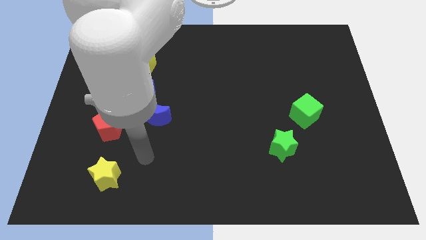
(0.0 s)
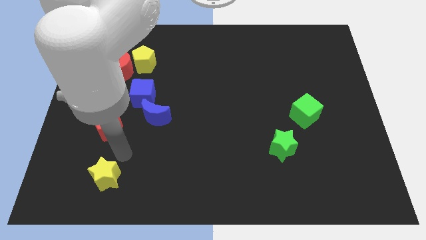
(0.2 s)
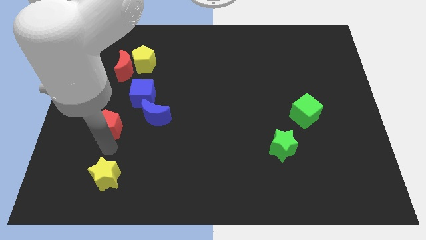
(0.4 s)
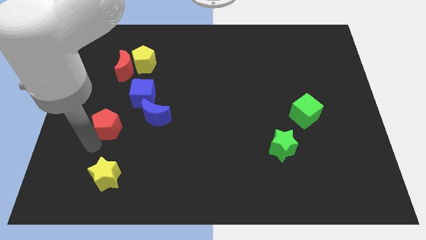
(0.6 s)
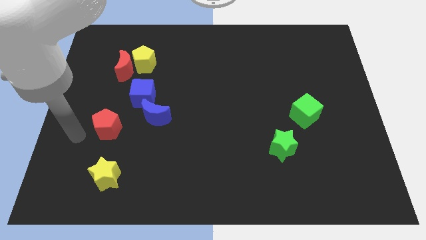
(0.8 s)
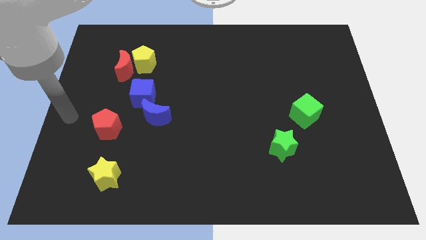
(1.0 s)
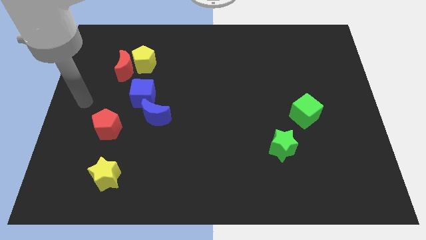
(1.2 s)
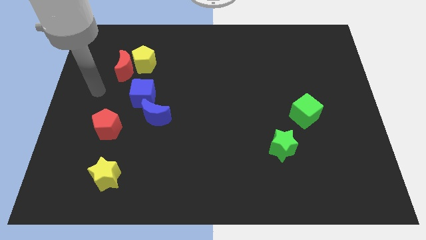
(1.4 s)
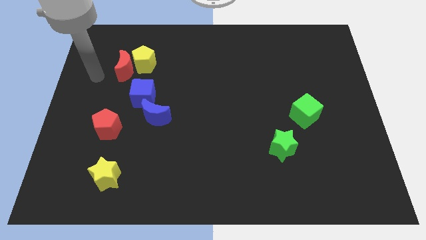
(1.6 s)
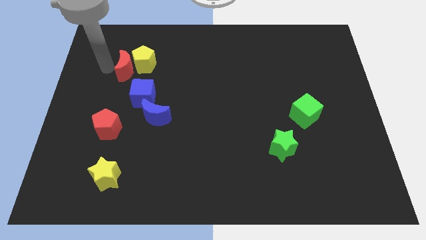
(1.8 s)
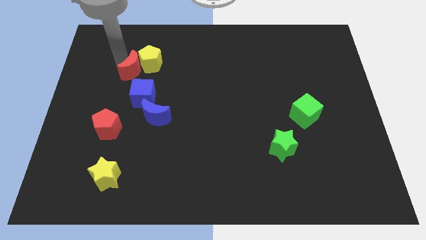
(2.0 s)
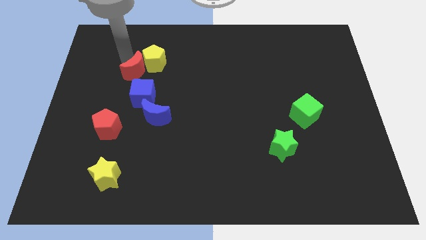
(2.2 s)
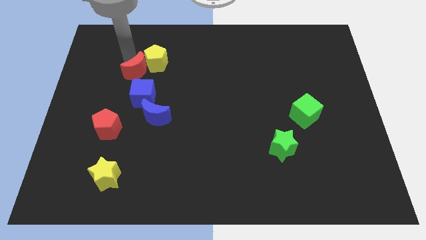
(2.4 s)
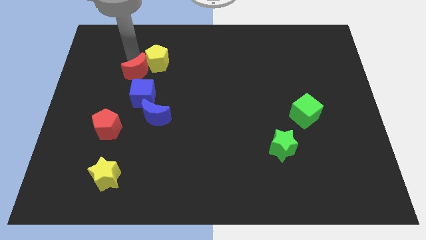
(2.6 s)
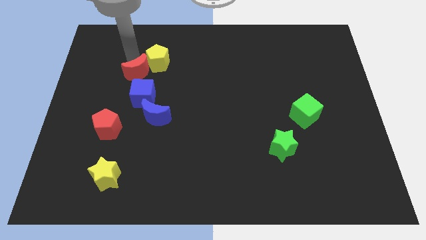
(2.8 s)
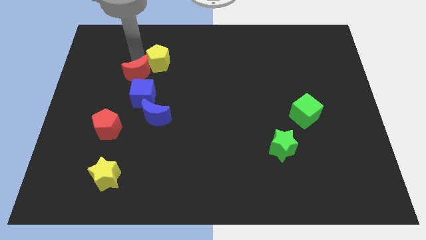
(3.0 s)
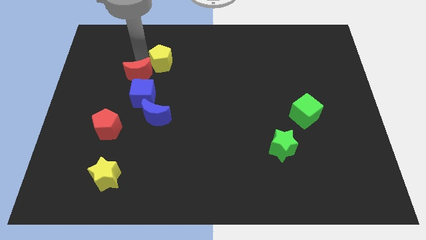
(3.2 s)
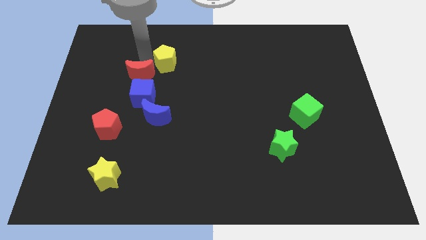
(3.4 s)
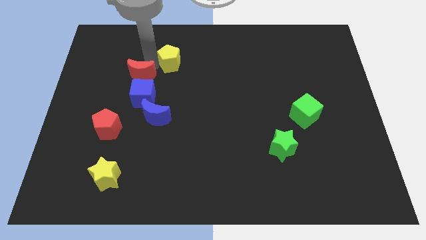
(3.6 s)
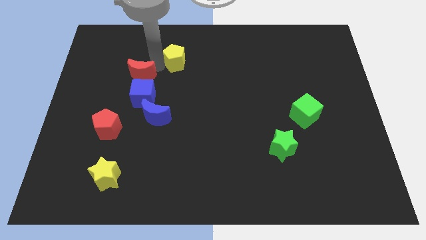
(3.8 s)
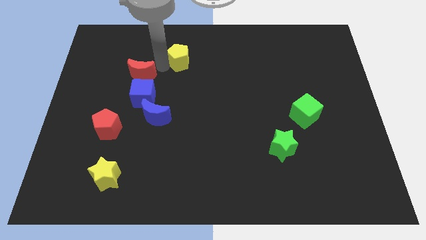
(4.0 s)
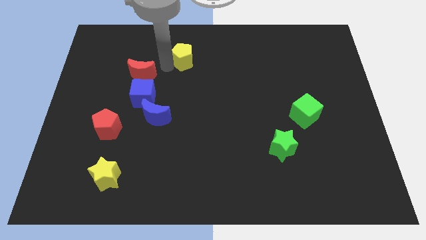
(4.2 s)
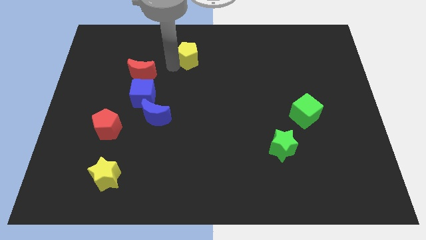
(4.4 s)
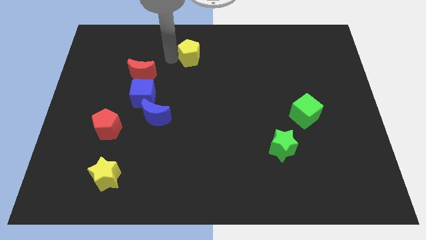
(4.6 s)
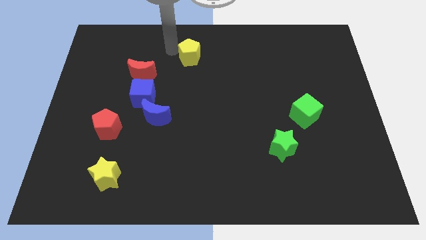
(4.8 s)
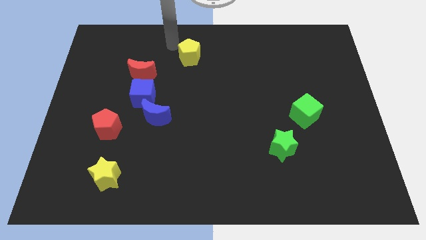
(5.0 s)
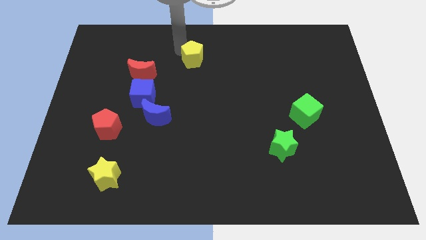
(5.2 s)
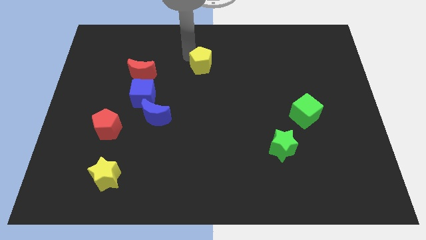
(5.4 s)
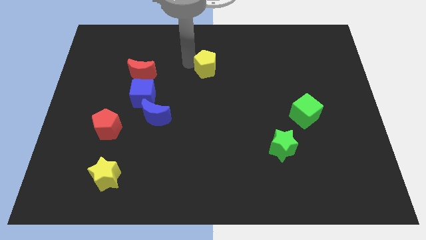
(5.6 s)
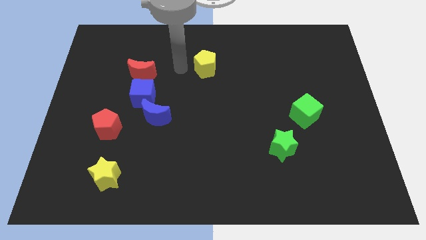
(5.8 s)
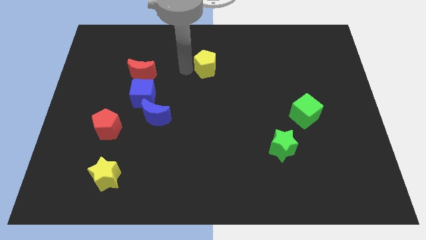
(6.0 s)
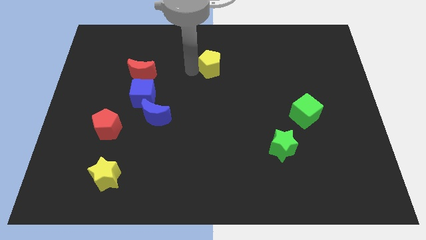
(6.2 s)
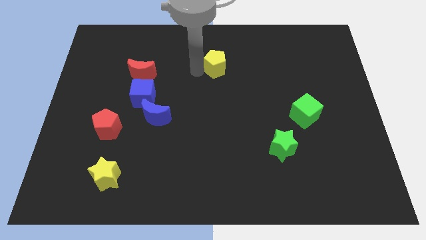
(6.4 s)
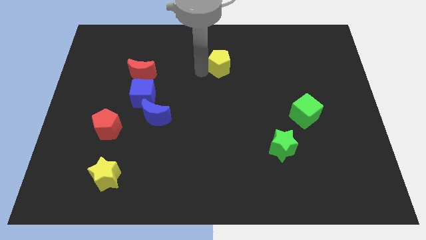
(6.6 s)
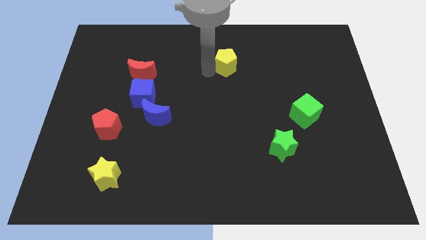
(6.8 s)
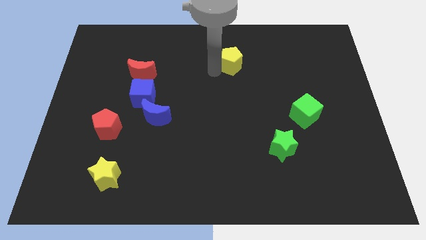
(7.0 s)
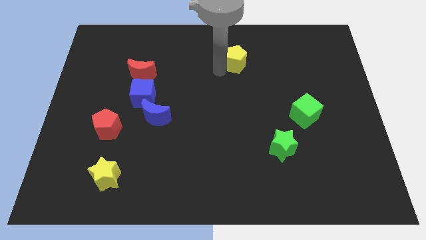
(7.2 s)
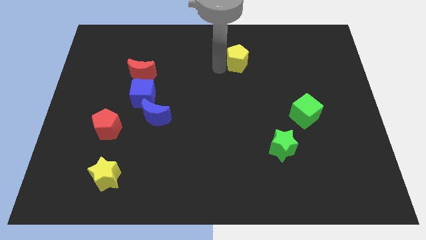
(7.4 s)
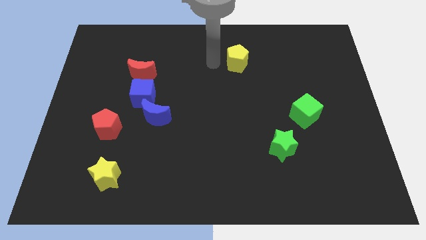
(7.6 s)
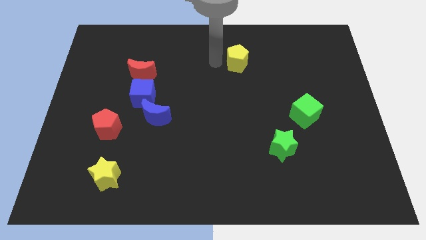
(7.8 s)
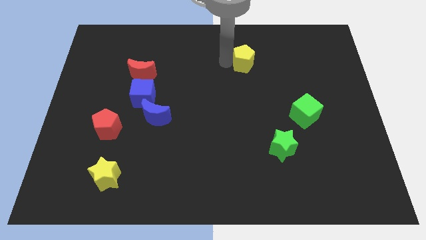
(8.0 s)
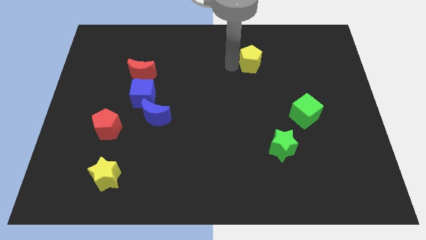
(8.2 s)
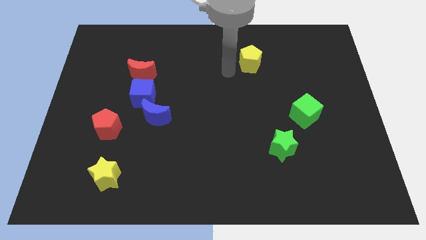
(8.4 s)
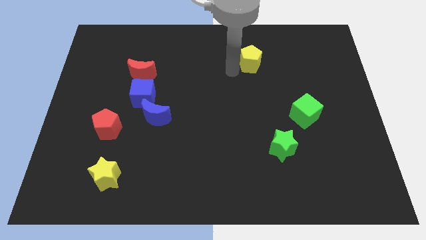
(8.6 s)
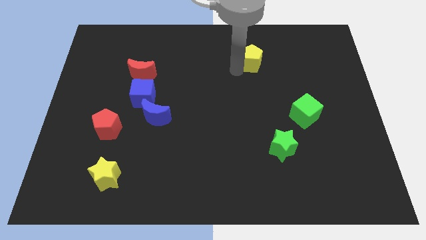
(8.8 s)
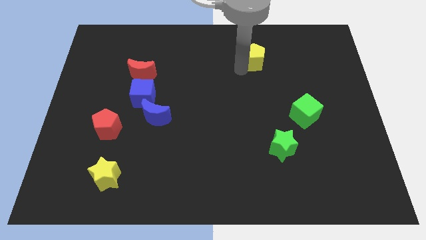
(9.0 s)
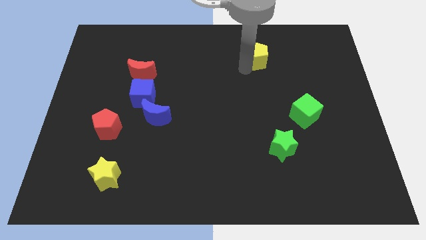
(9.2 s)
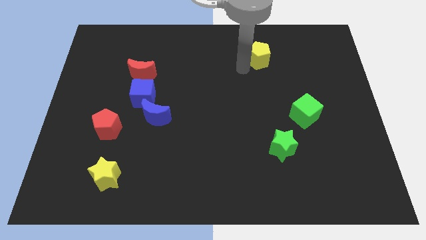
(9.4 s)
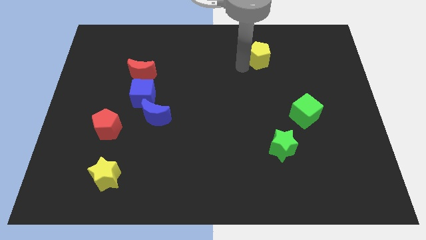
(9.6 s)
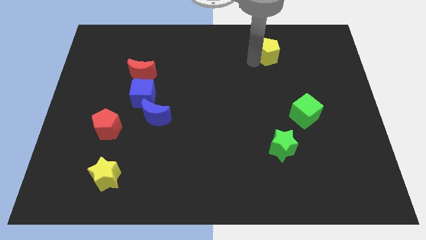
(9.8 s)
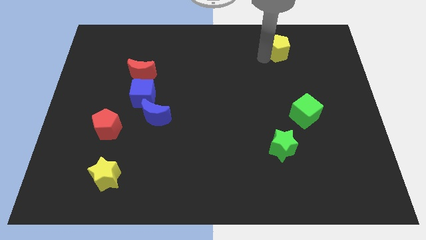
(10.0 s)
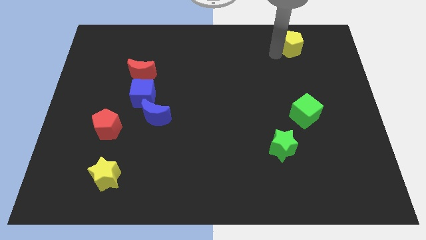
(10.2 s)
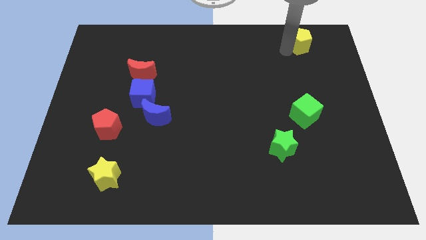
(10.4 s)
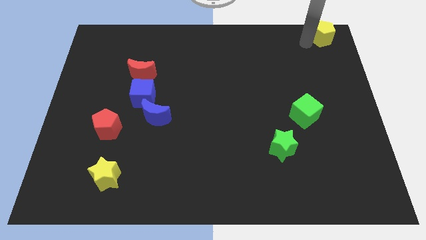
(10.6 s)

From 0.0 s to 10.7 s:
slide the yellow pentagon to the top right of the board

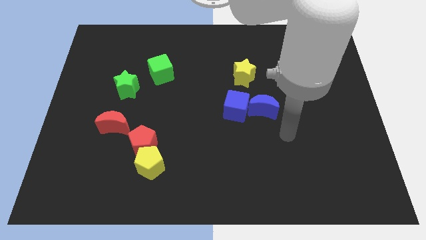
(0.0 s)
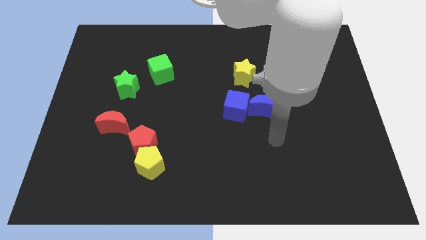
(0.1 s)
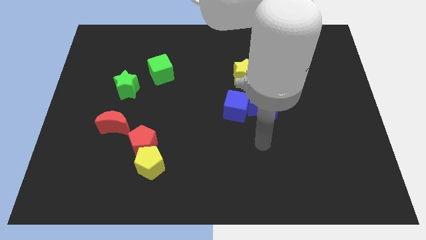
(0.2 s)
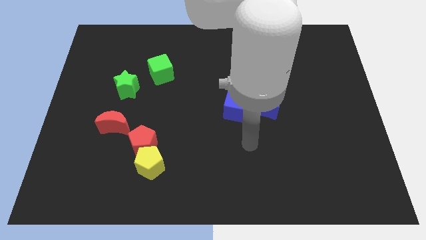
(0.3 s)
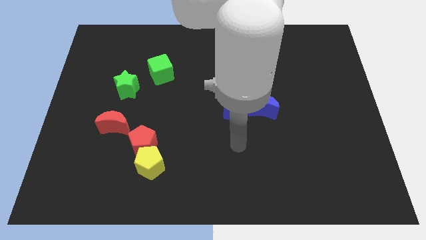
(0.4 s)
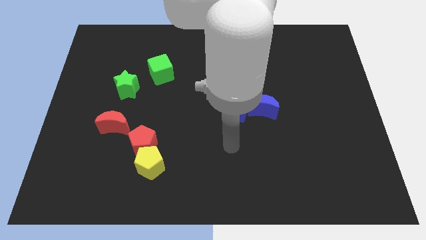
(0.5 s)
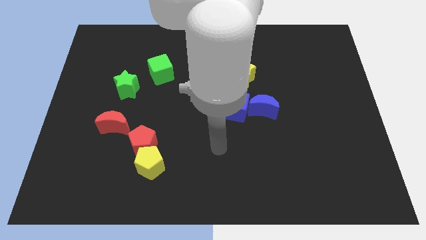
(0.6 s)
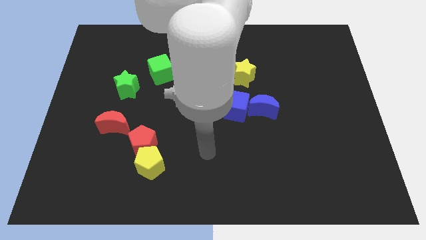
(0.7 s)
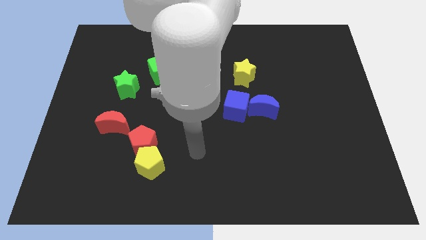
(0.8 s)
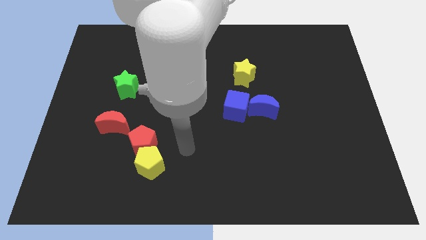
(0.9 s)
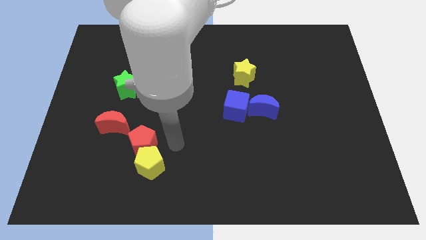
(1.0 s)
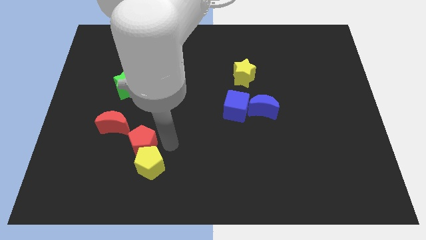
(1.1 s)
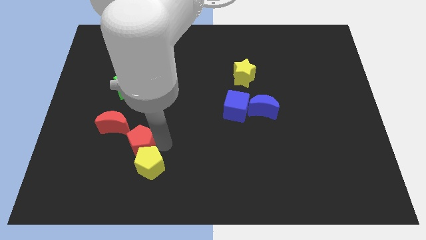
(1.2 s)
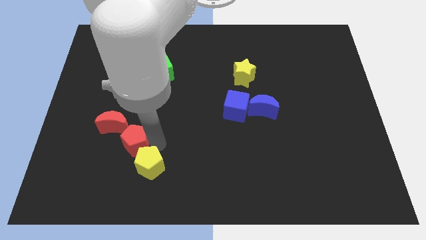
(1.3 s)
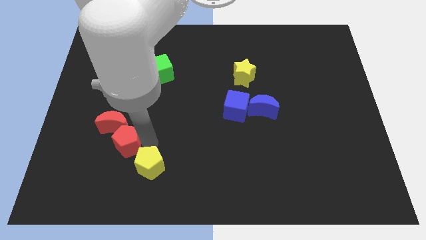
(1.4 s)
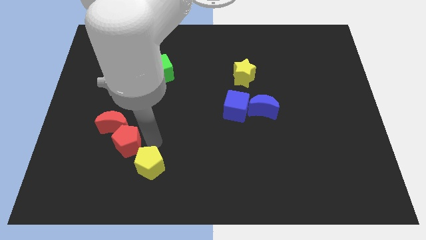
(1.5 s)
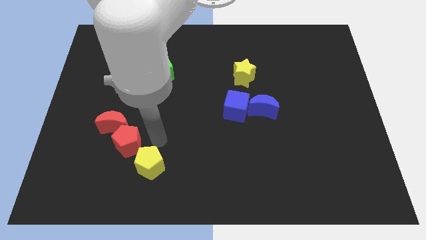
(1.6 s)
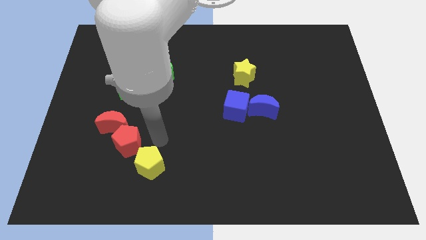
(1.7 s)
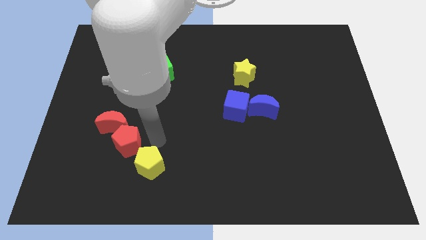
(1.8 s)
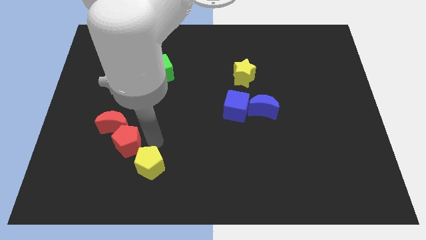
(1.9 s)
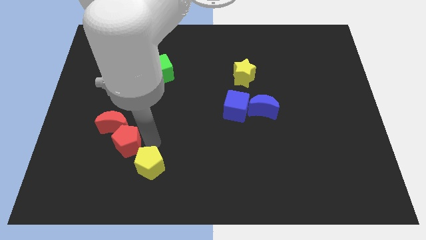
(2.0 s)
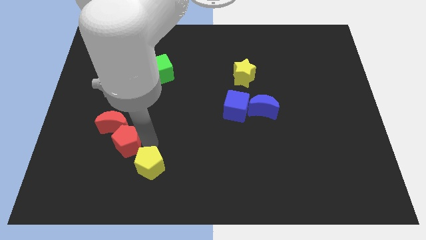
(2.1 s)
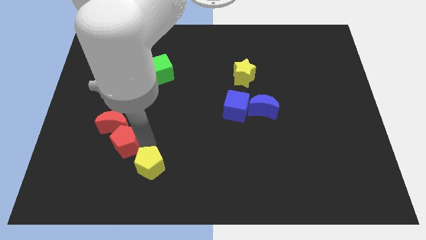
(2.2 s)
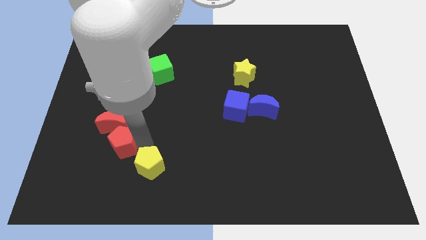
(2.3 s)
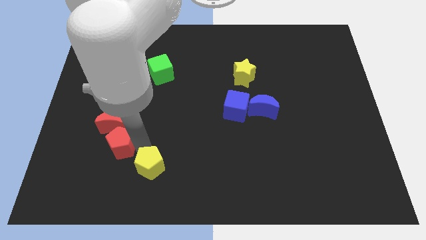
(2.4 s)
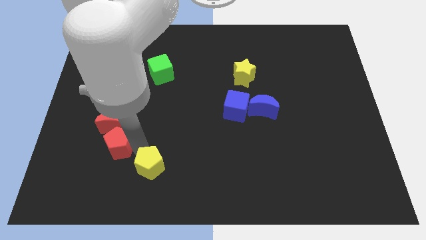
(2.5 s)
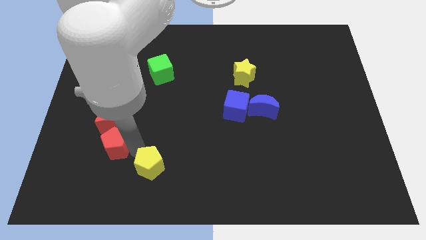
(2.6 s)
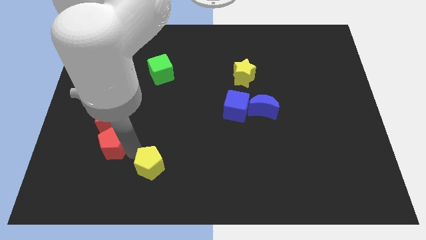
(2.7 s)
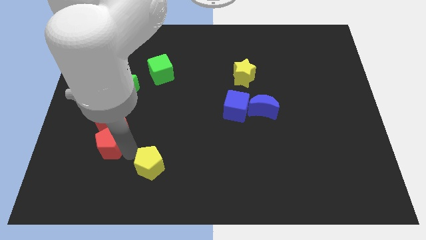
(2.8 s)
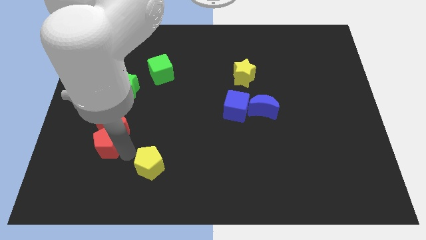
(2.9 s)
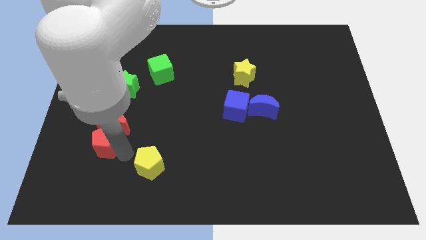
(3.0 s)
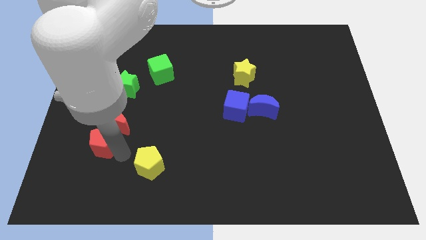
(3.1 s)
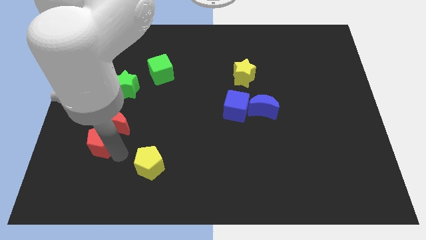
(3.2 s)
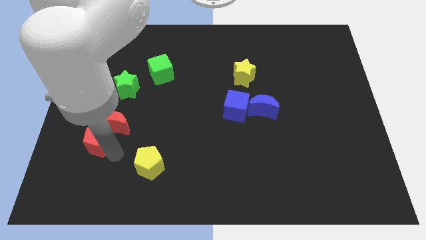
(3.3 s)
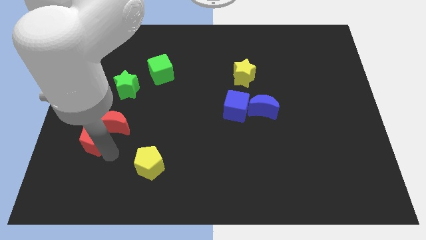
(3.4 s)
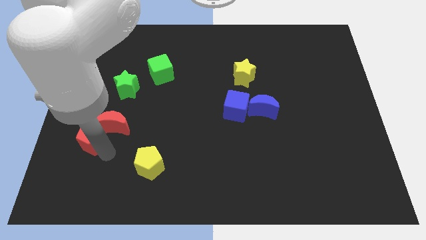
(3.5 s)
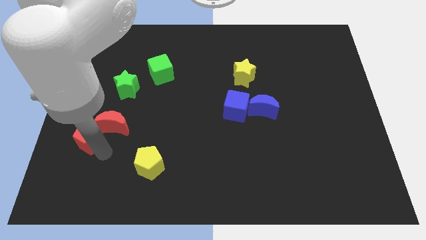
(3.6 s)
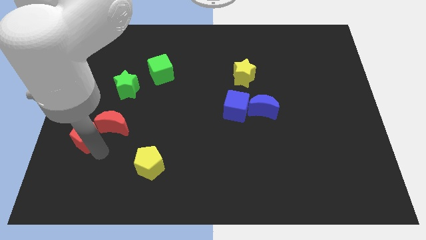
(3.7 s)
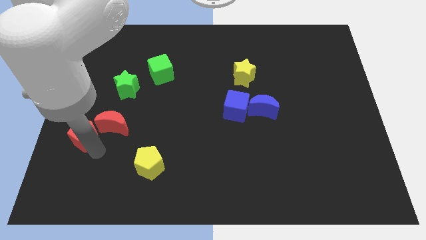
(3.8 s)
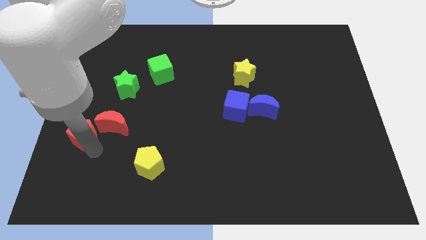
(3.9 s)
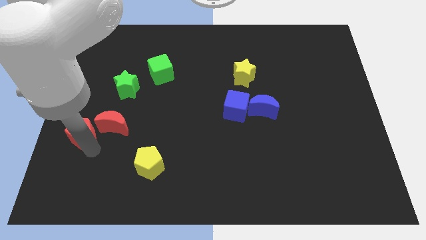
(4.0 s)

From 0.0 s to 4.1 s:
put the red pentagon to the left side of the board
